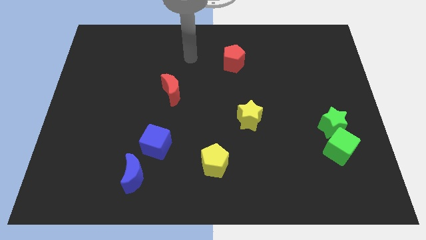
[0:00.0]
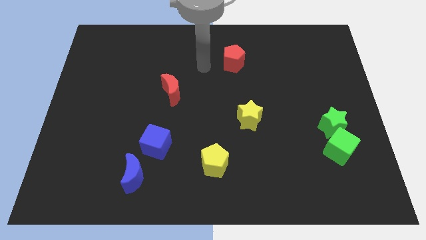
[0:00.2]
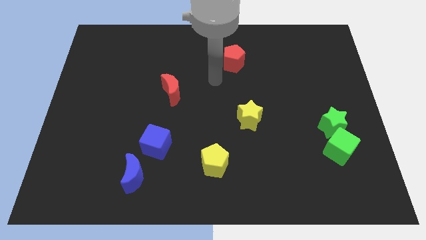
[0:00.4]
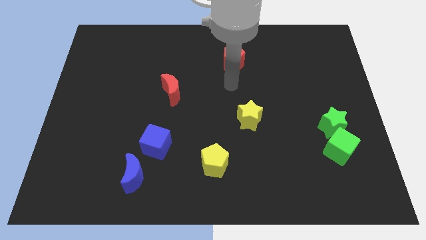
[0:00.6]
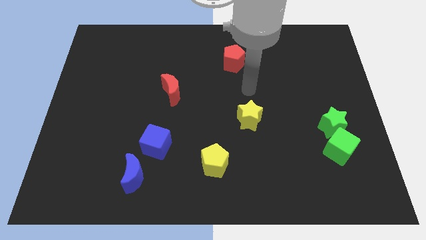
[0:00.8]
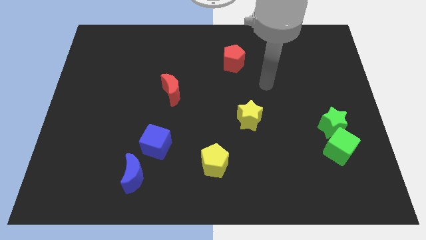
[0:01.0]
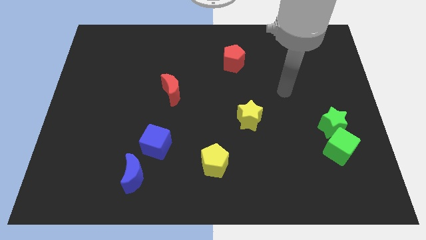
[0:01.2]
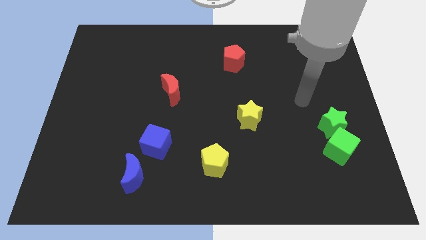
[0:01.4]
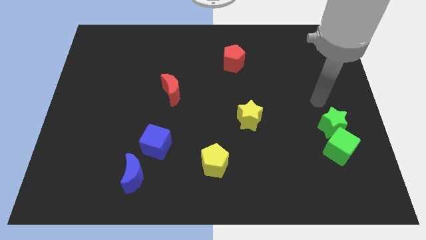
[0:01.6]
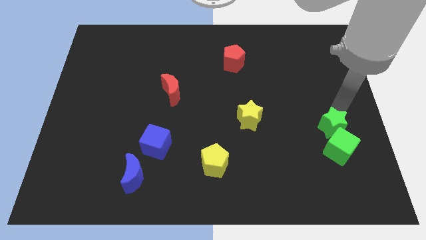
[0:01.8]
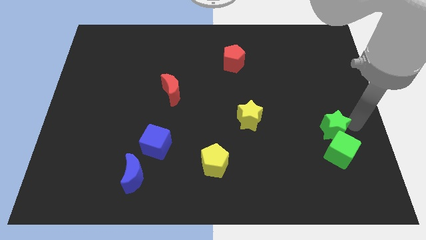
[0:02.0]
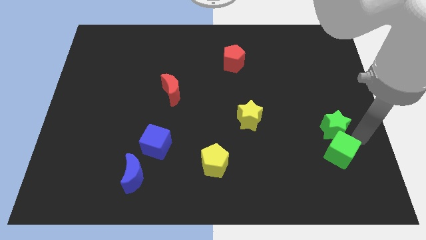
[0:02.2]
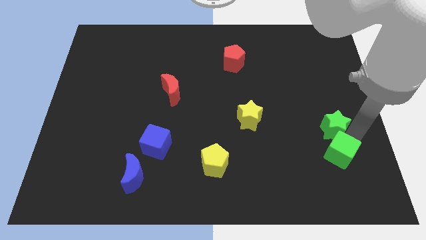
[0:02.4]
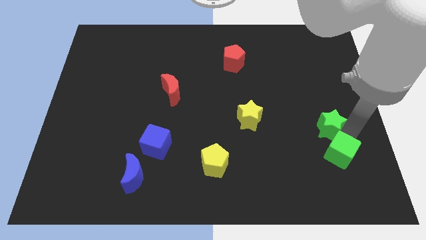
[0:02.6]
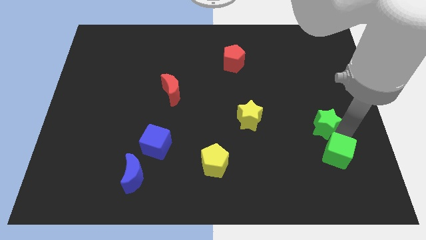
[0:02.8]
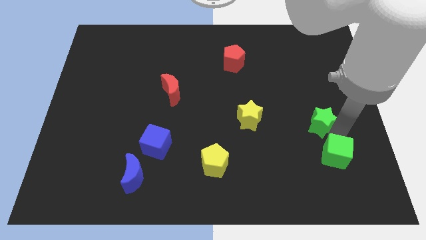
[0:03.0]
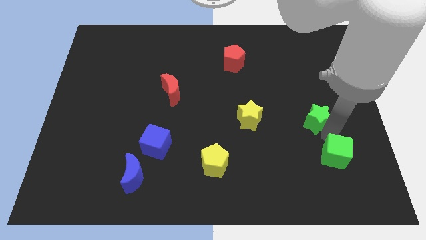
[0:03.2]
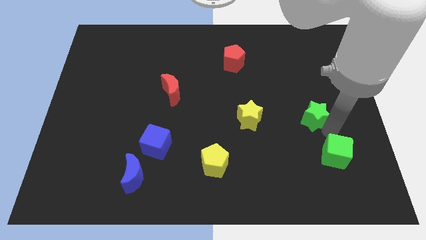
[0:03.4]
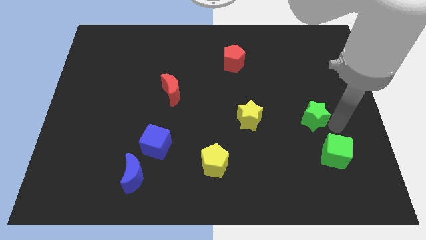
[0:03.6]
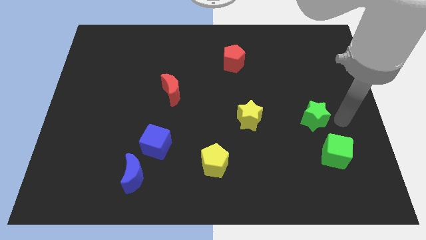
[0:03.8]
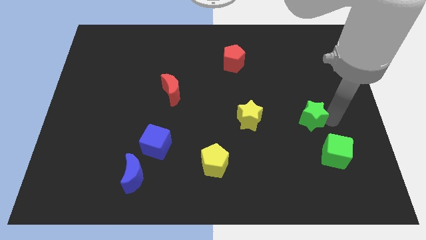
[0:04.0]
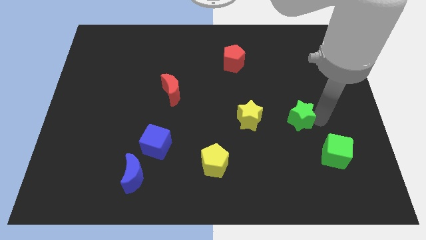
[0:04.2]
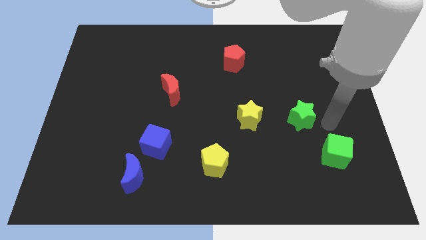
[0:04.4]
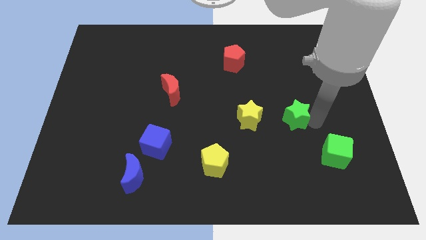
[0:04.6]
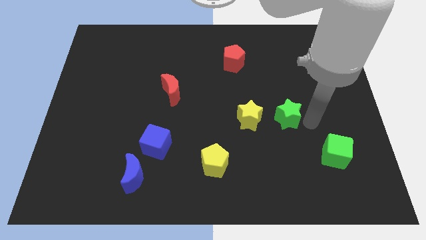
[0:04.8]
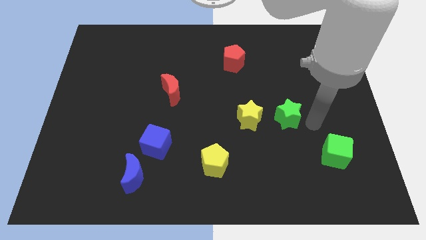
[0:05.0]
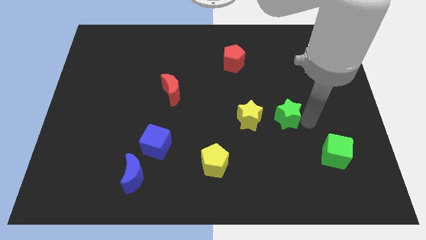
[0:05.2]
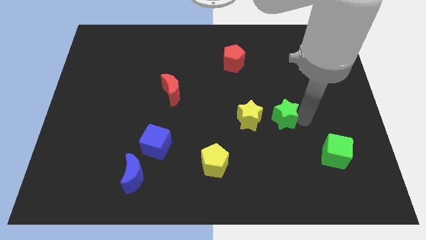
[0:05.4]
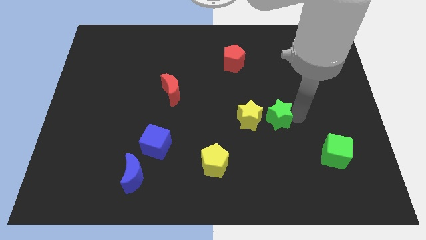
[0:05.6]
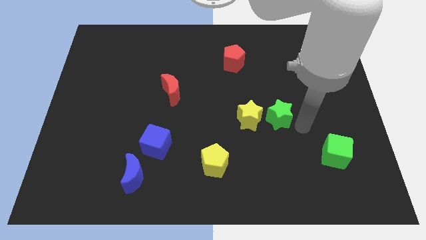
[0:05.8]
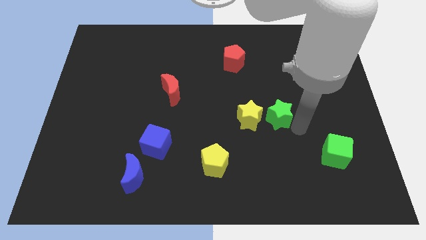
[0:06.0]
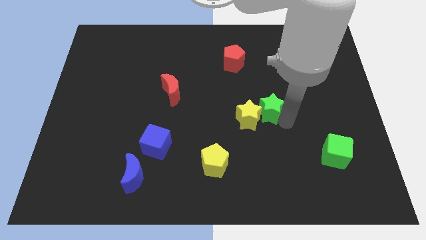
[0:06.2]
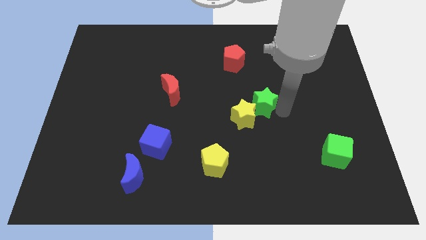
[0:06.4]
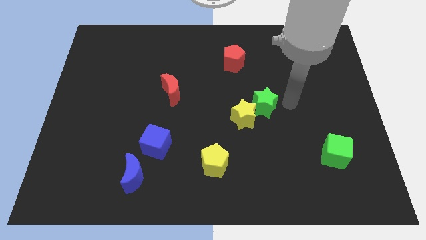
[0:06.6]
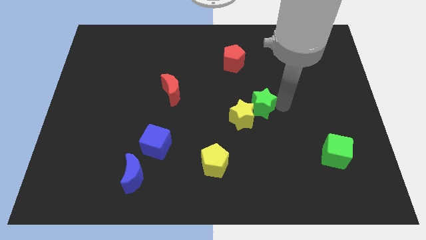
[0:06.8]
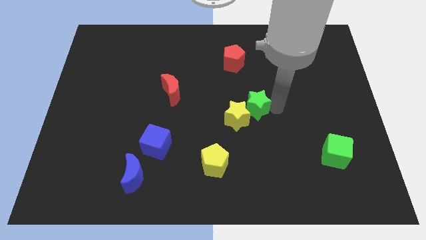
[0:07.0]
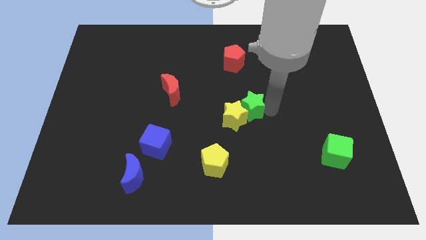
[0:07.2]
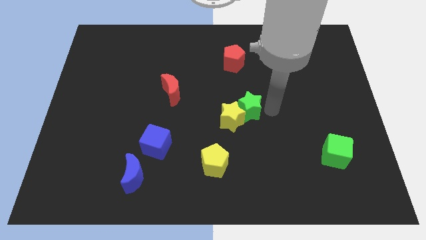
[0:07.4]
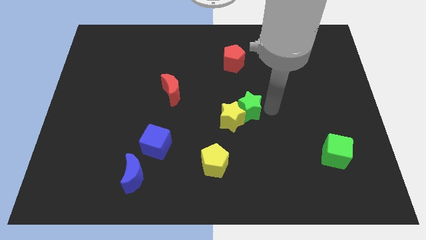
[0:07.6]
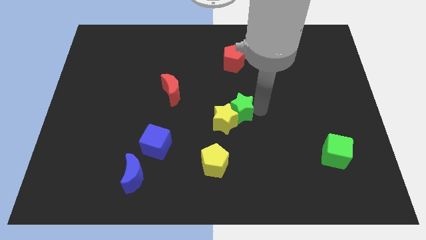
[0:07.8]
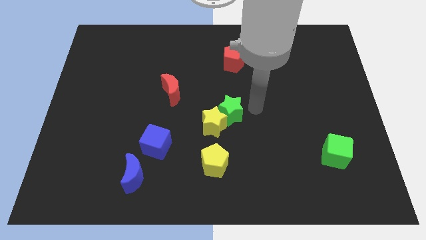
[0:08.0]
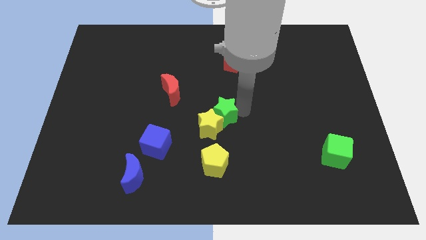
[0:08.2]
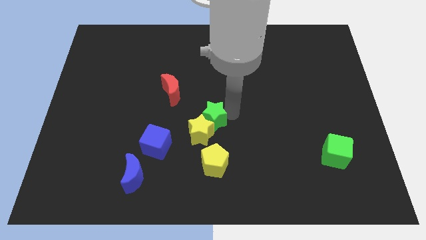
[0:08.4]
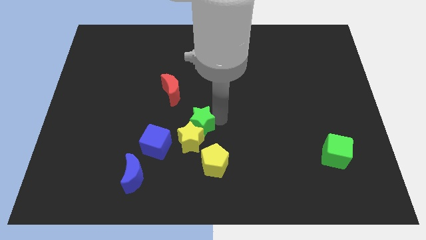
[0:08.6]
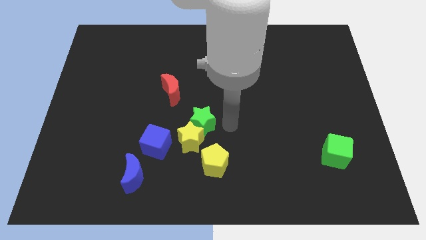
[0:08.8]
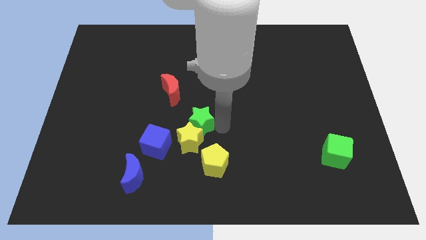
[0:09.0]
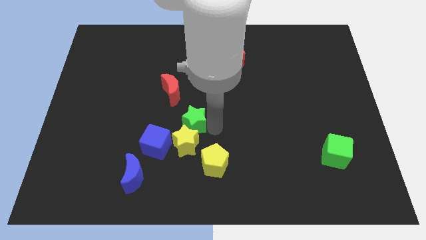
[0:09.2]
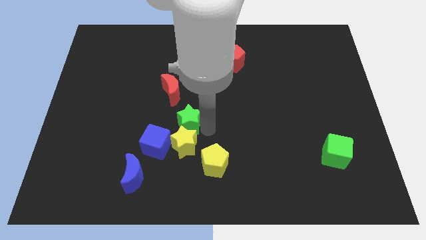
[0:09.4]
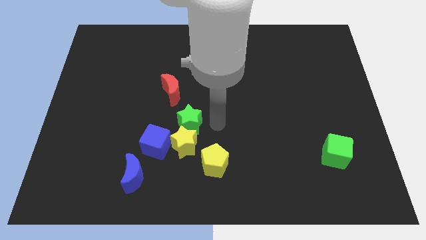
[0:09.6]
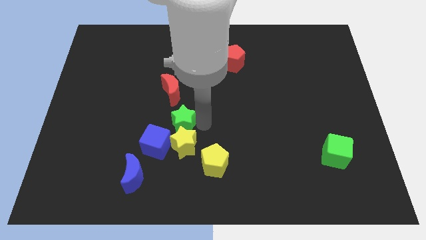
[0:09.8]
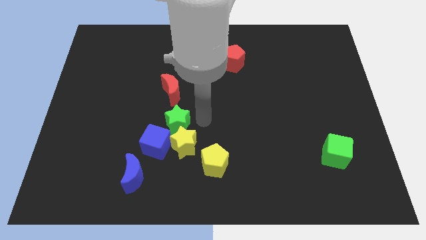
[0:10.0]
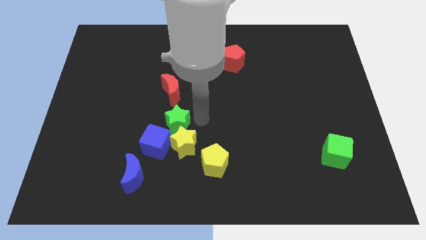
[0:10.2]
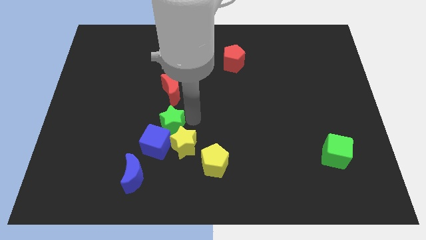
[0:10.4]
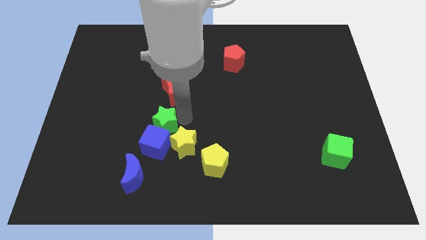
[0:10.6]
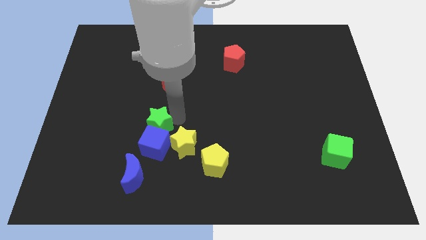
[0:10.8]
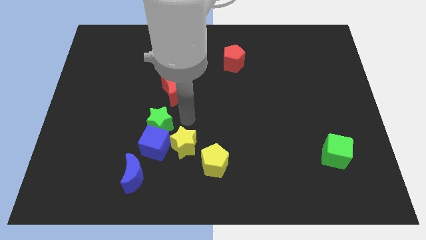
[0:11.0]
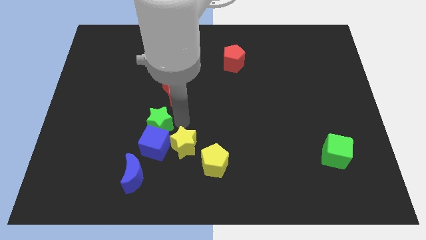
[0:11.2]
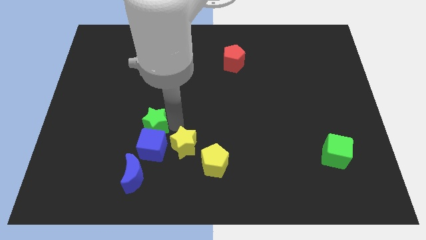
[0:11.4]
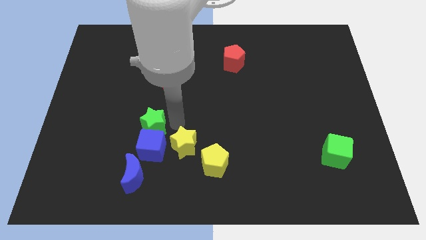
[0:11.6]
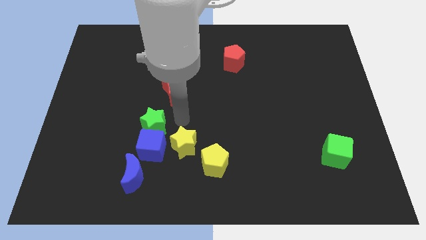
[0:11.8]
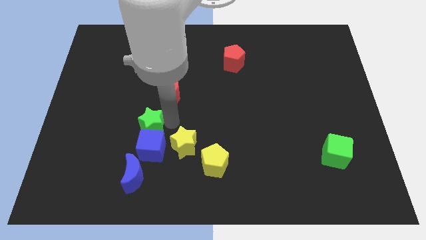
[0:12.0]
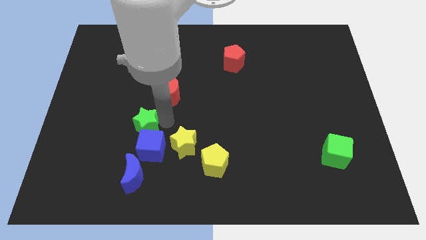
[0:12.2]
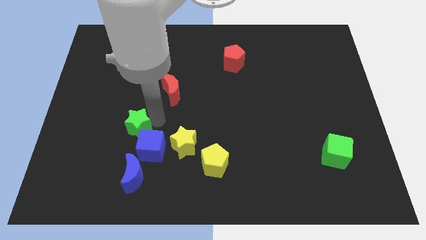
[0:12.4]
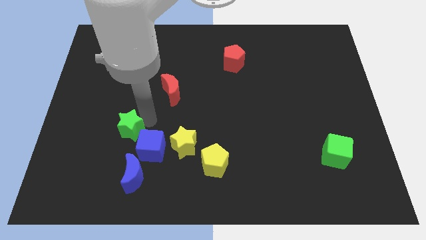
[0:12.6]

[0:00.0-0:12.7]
slide the green star left of the blue cube

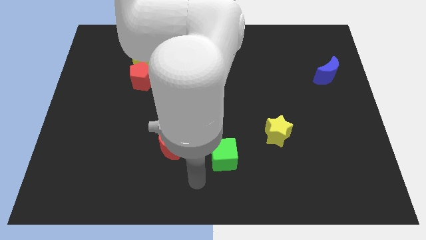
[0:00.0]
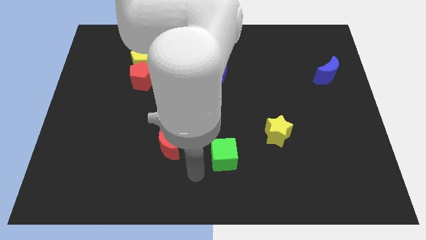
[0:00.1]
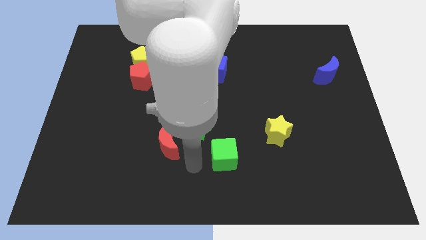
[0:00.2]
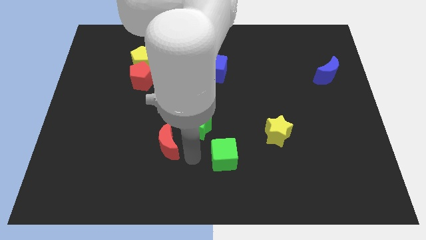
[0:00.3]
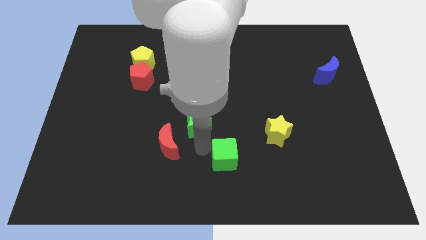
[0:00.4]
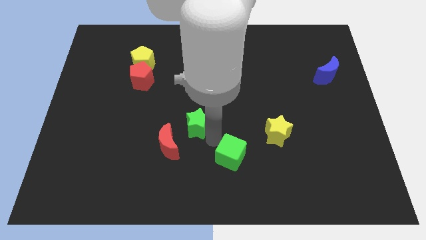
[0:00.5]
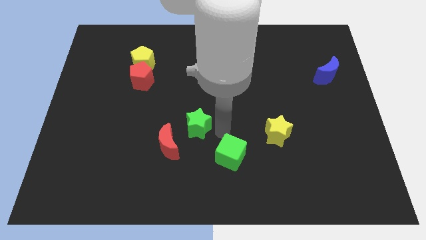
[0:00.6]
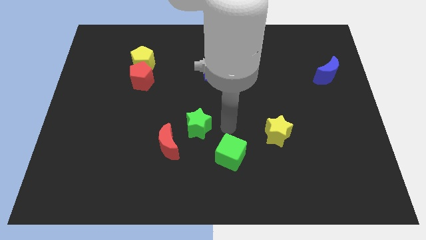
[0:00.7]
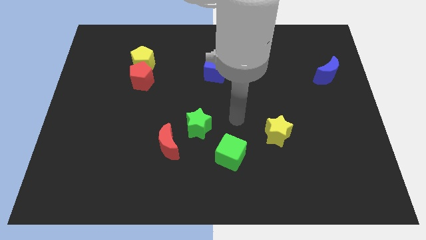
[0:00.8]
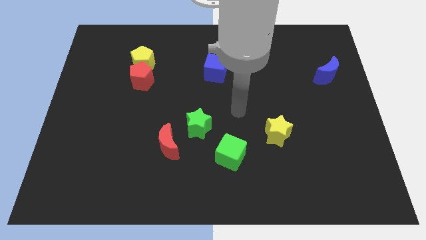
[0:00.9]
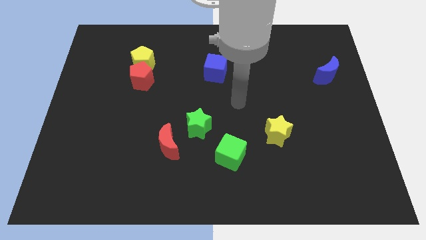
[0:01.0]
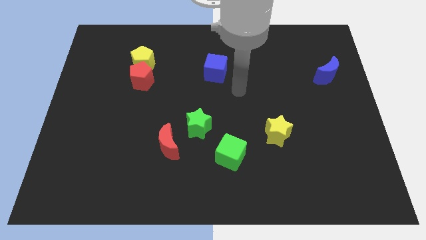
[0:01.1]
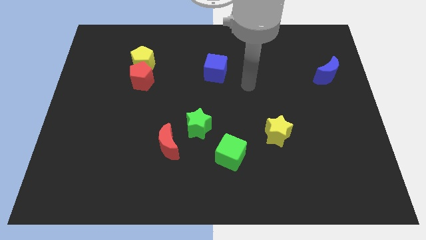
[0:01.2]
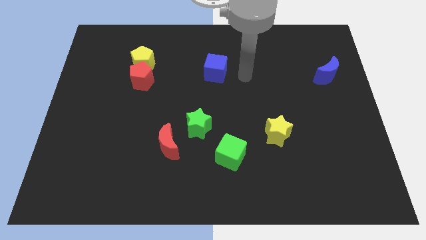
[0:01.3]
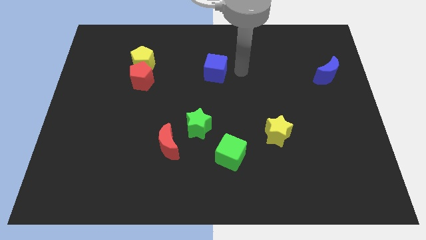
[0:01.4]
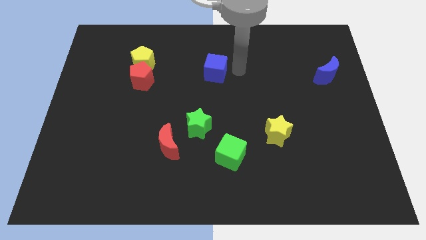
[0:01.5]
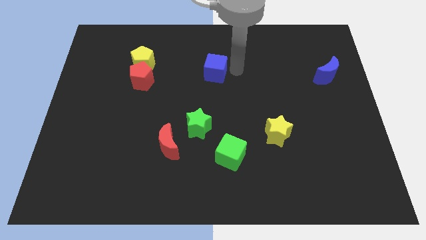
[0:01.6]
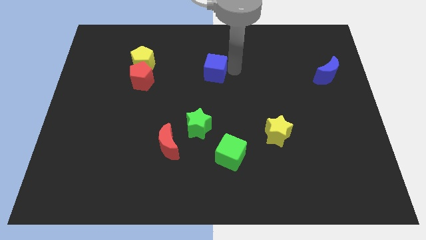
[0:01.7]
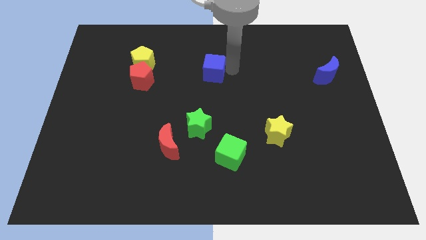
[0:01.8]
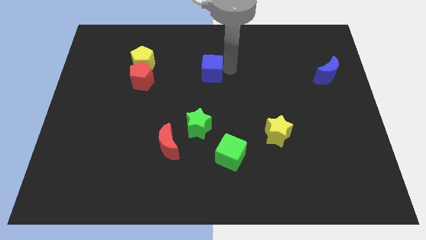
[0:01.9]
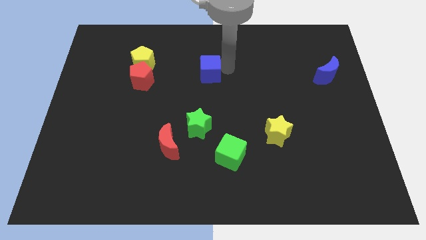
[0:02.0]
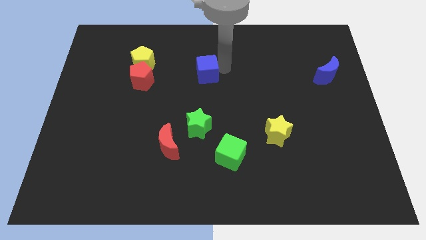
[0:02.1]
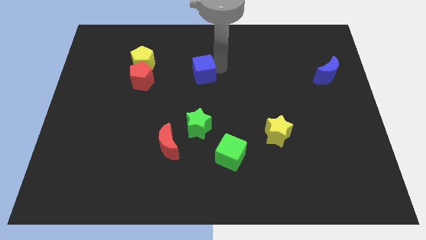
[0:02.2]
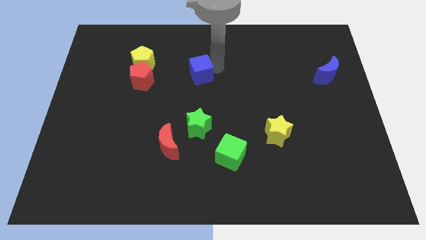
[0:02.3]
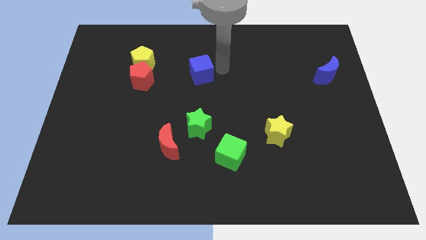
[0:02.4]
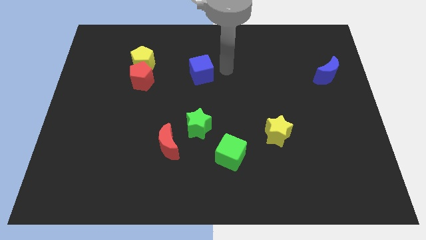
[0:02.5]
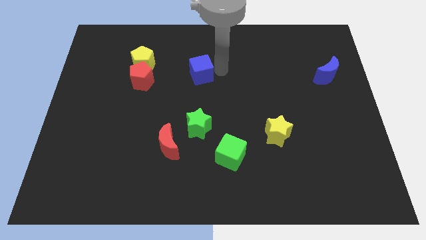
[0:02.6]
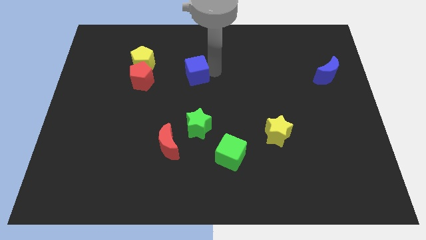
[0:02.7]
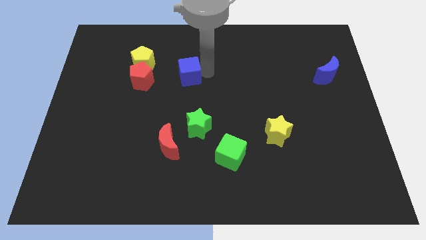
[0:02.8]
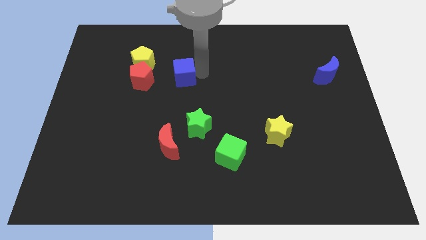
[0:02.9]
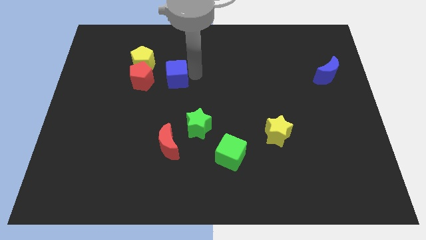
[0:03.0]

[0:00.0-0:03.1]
slide the blue cube diagonally down and to the right of the yellow pentagon
